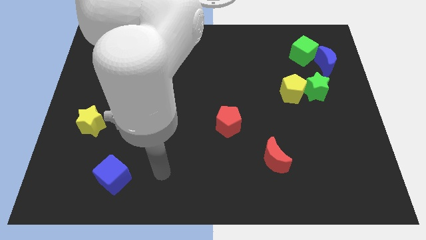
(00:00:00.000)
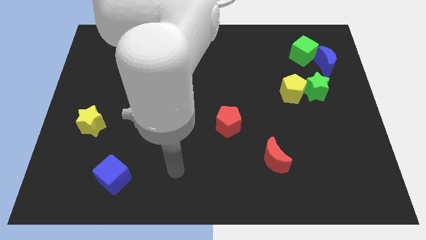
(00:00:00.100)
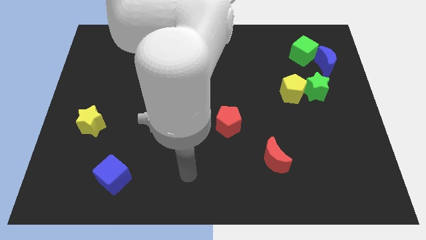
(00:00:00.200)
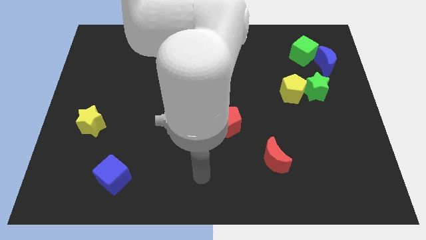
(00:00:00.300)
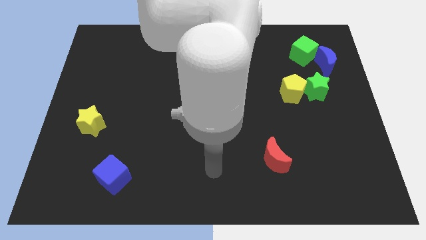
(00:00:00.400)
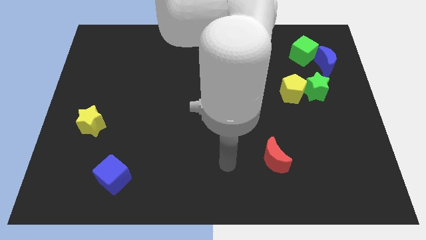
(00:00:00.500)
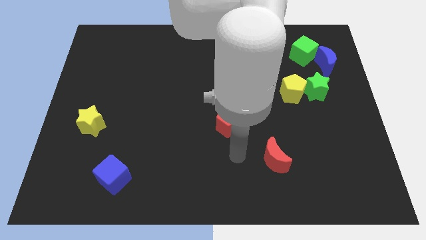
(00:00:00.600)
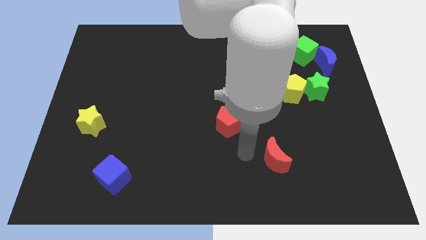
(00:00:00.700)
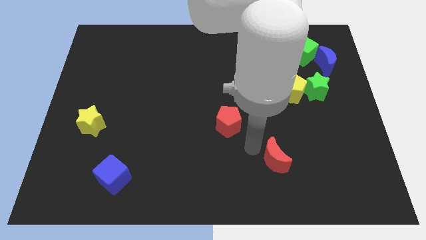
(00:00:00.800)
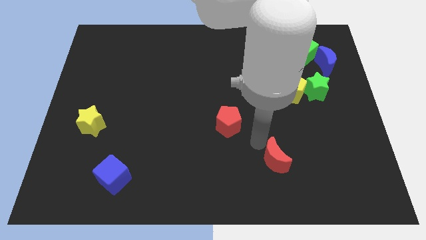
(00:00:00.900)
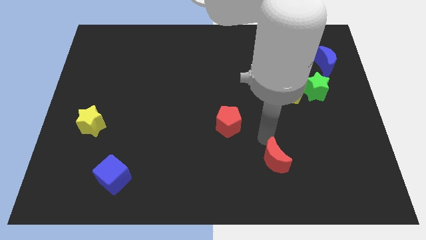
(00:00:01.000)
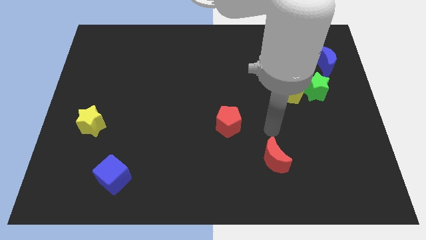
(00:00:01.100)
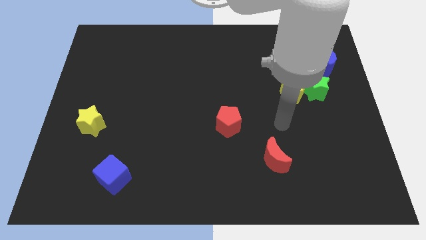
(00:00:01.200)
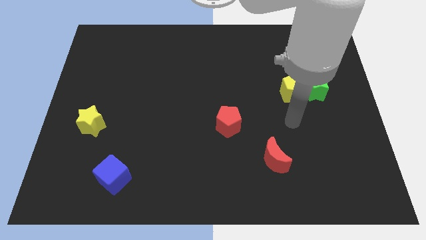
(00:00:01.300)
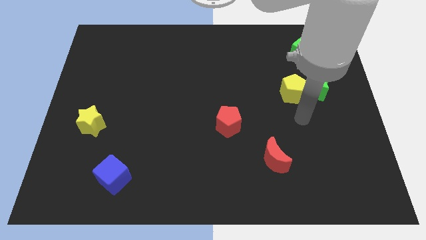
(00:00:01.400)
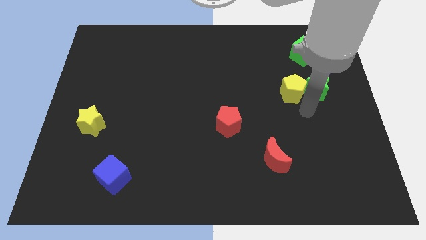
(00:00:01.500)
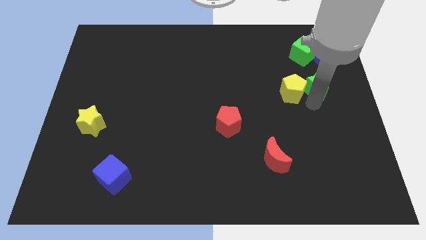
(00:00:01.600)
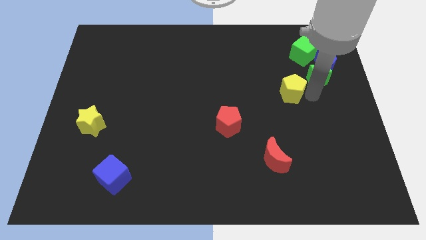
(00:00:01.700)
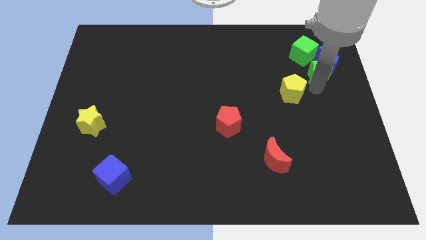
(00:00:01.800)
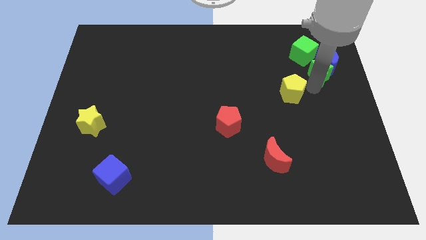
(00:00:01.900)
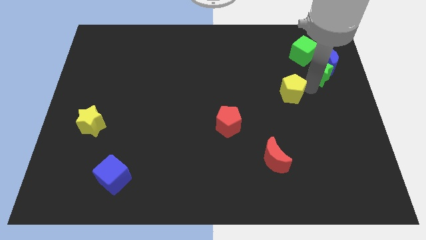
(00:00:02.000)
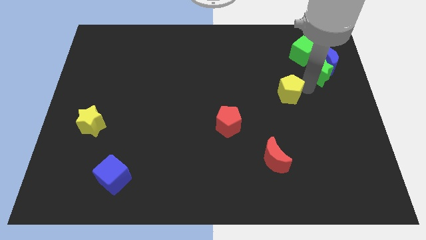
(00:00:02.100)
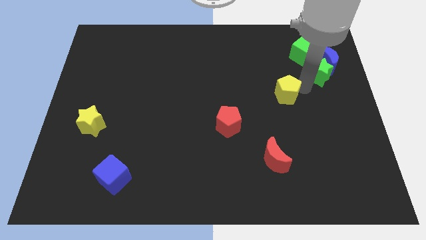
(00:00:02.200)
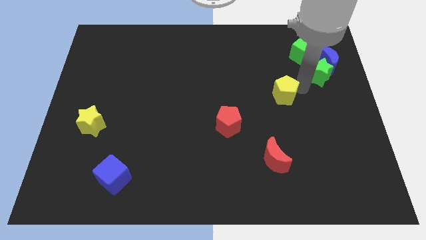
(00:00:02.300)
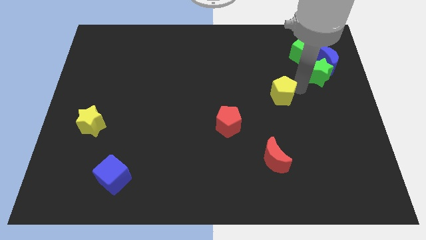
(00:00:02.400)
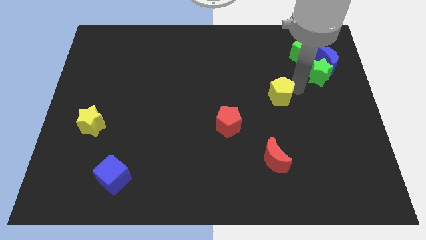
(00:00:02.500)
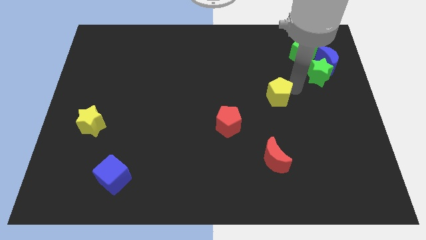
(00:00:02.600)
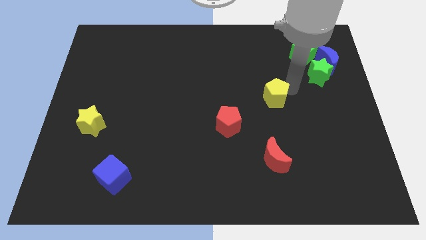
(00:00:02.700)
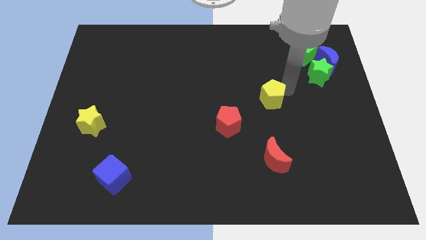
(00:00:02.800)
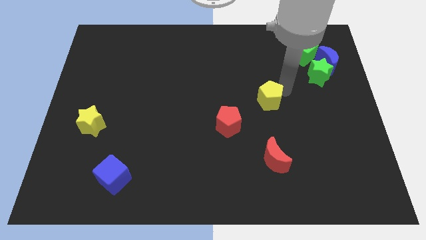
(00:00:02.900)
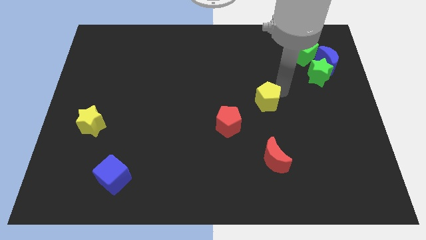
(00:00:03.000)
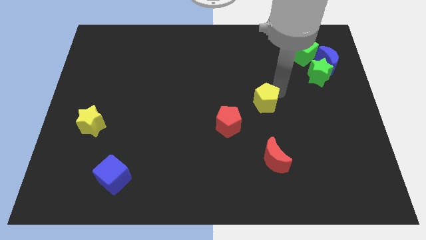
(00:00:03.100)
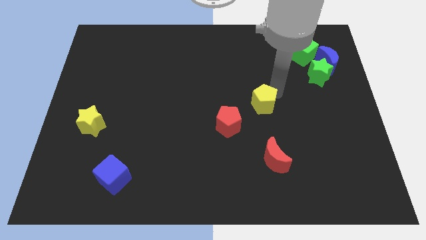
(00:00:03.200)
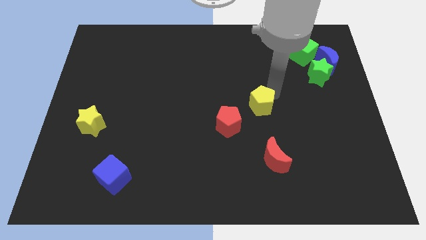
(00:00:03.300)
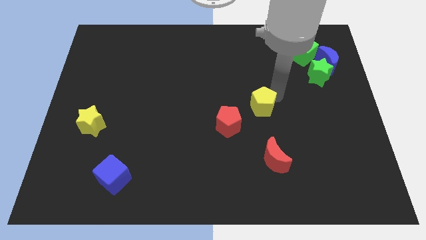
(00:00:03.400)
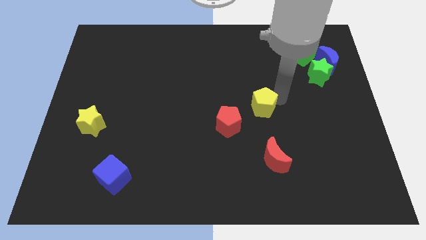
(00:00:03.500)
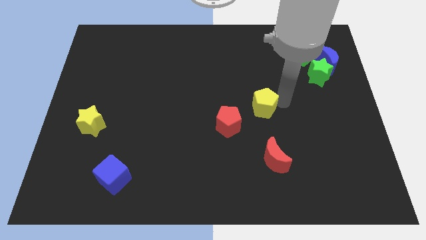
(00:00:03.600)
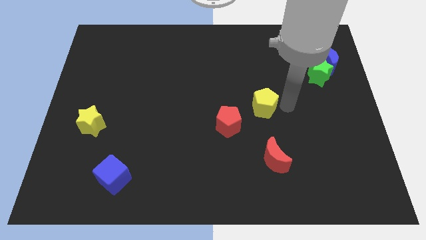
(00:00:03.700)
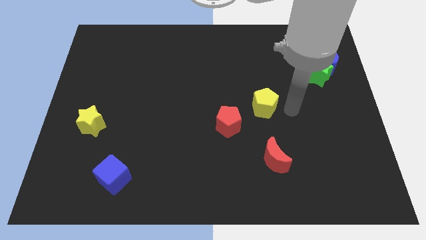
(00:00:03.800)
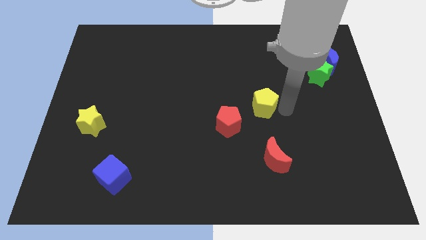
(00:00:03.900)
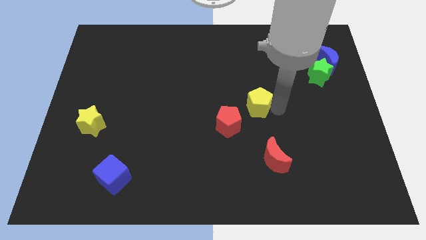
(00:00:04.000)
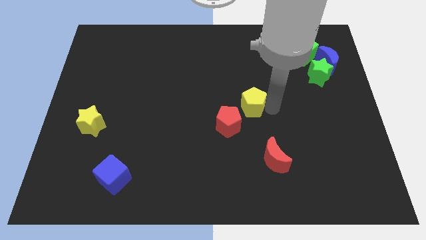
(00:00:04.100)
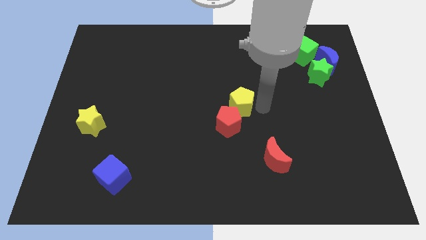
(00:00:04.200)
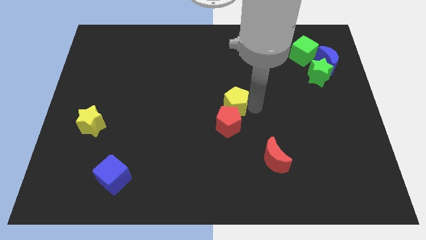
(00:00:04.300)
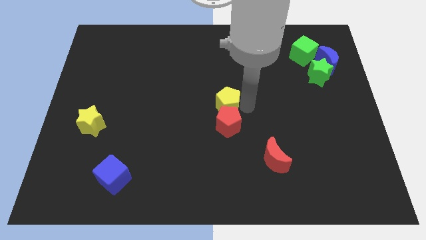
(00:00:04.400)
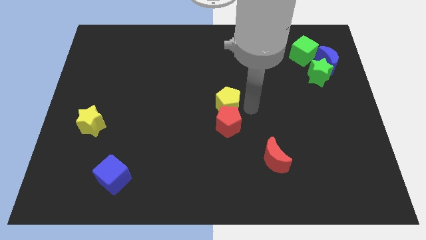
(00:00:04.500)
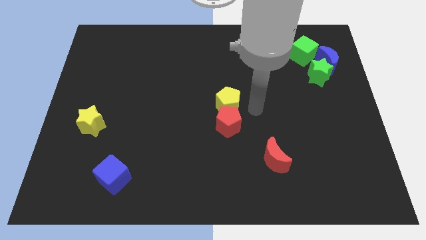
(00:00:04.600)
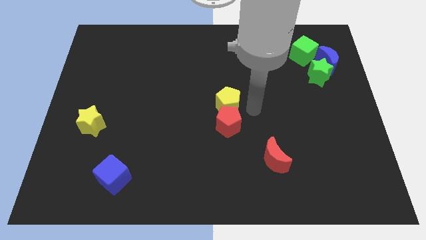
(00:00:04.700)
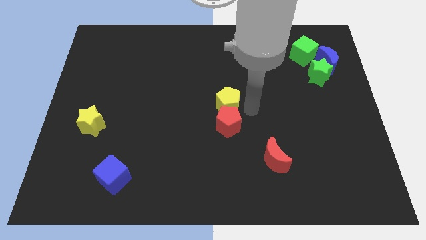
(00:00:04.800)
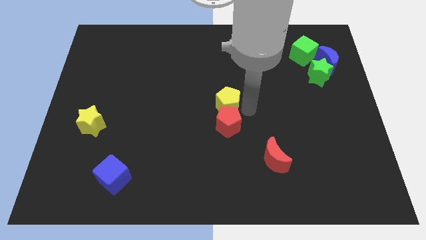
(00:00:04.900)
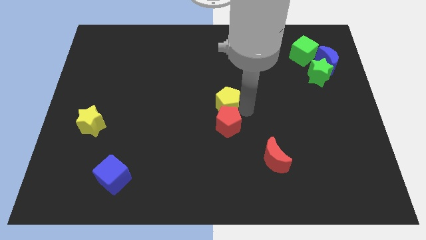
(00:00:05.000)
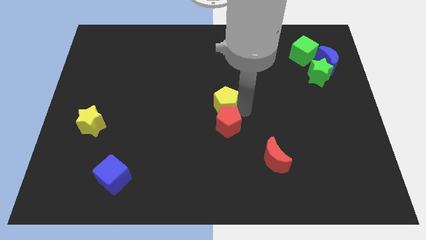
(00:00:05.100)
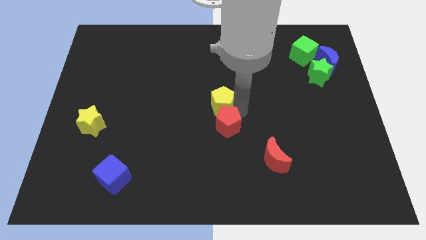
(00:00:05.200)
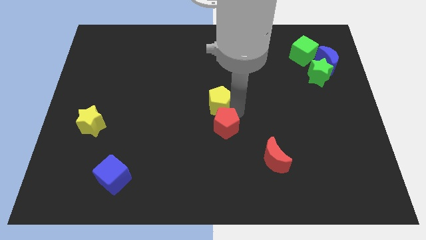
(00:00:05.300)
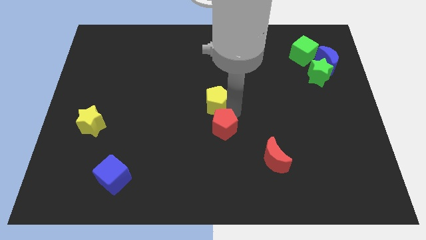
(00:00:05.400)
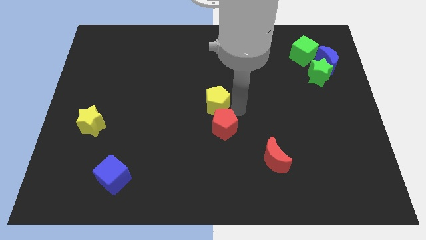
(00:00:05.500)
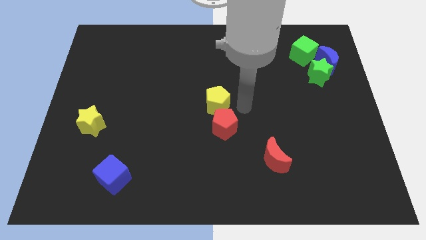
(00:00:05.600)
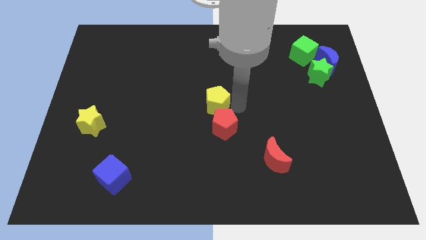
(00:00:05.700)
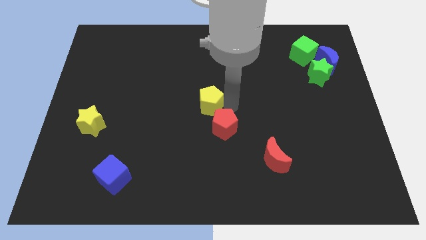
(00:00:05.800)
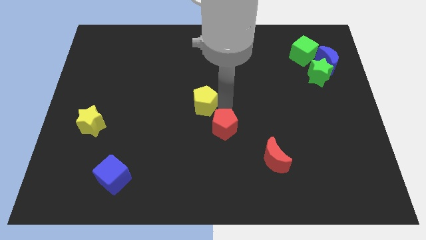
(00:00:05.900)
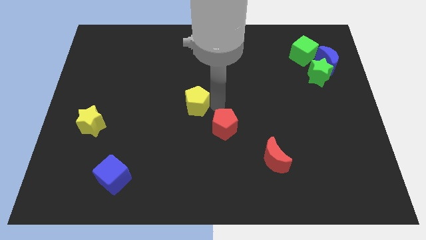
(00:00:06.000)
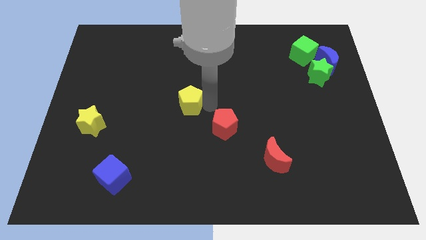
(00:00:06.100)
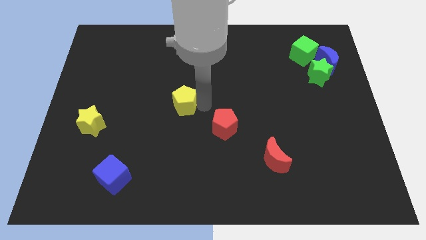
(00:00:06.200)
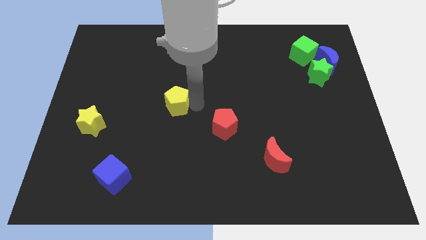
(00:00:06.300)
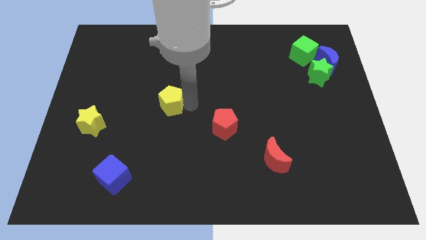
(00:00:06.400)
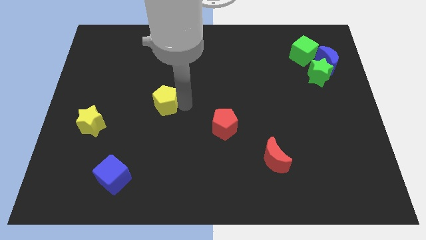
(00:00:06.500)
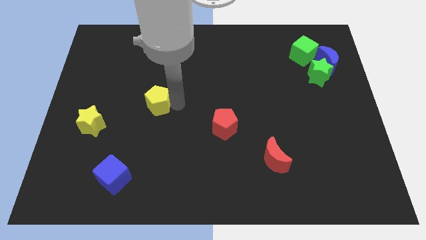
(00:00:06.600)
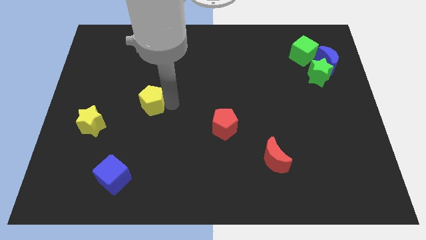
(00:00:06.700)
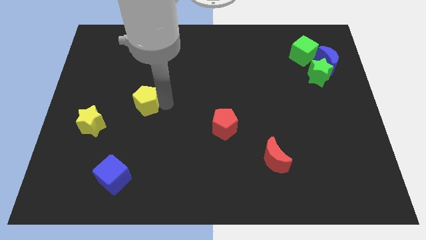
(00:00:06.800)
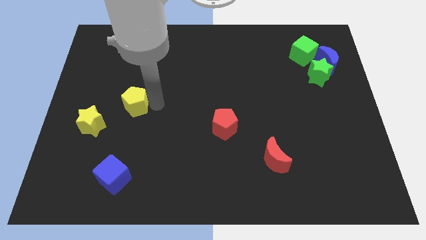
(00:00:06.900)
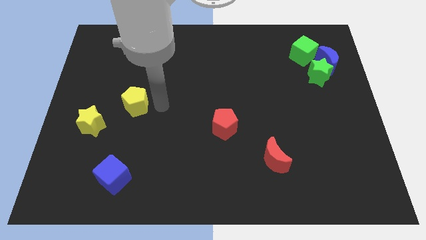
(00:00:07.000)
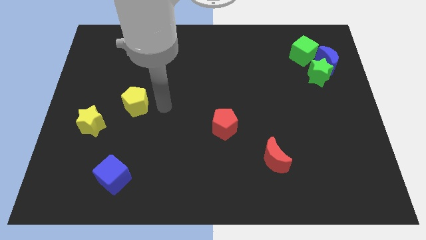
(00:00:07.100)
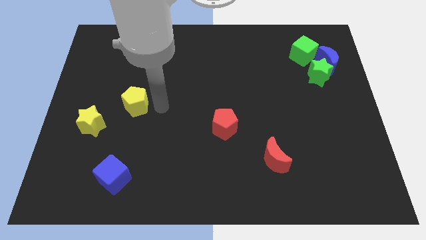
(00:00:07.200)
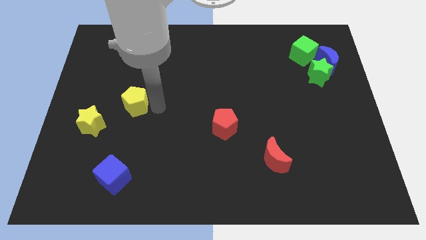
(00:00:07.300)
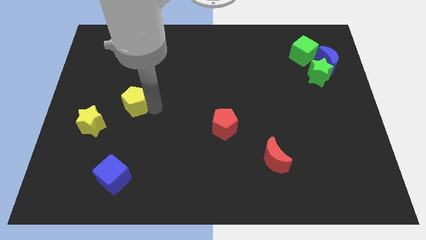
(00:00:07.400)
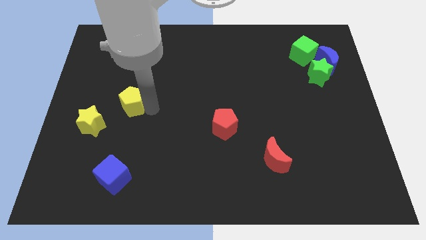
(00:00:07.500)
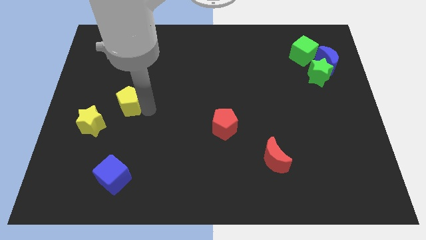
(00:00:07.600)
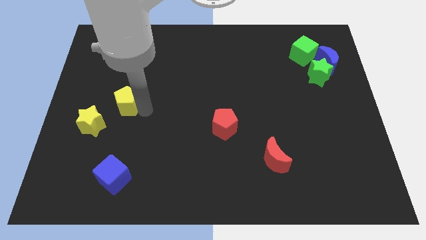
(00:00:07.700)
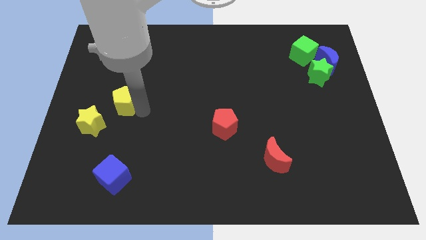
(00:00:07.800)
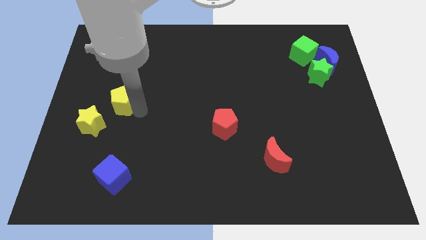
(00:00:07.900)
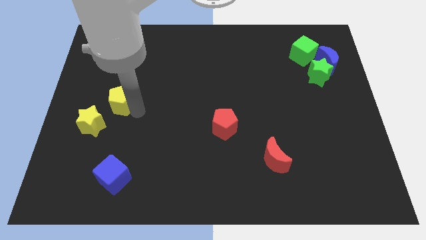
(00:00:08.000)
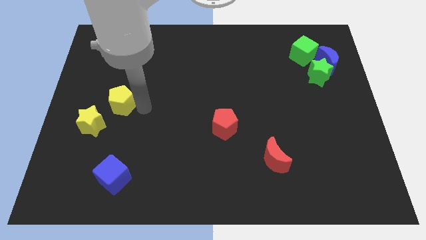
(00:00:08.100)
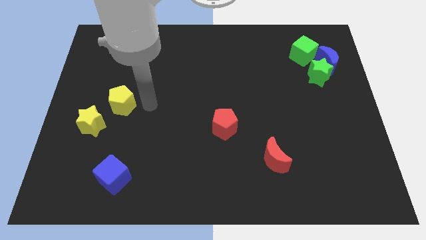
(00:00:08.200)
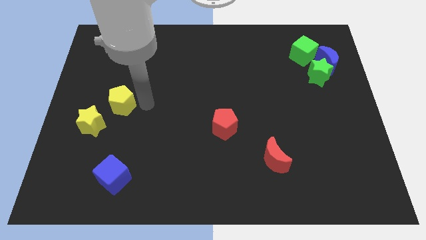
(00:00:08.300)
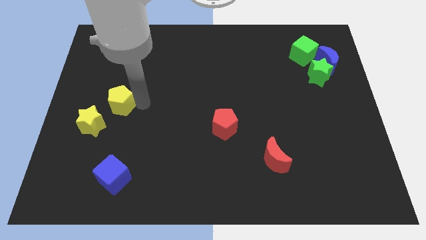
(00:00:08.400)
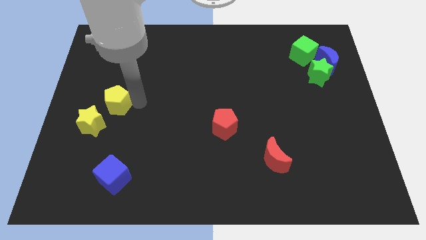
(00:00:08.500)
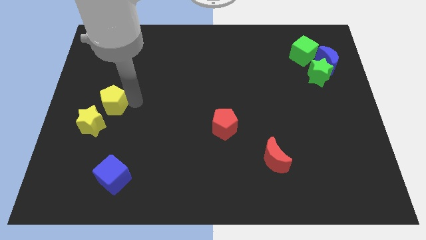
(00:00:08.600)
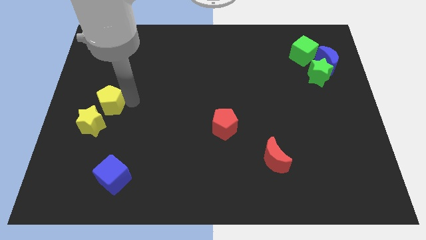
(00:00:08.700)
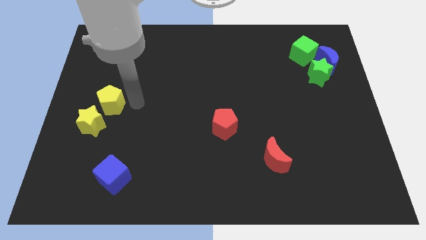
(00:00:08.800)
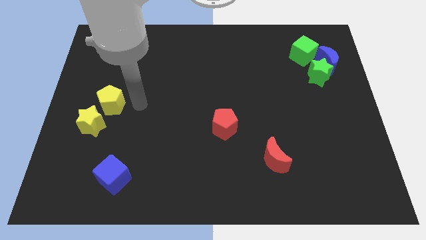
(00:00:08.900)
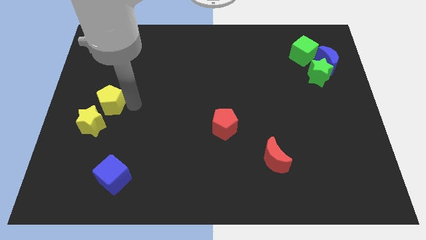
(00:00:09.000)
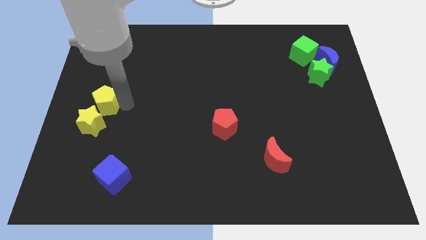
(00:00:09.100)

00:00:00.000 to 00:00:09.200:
slide the yellow pentagon to the left side
